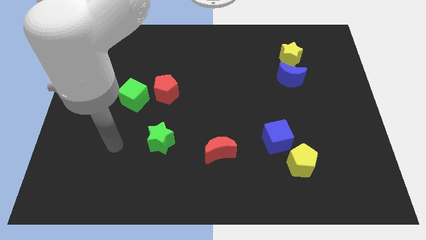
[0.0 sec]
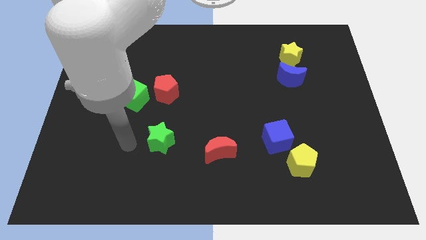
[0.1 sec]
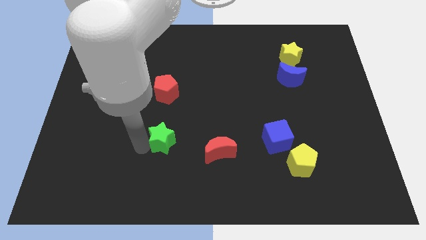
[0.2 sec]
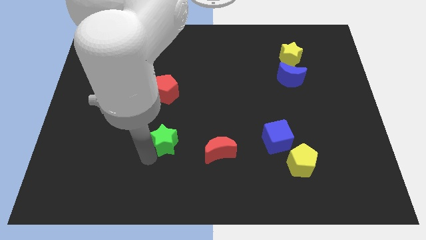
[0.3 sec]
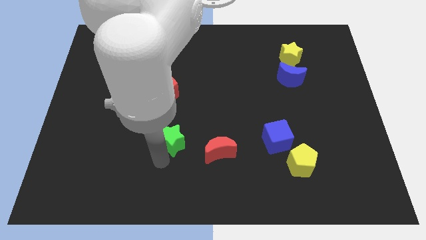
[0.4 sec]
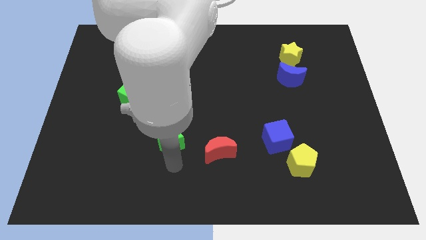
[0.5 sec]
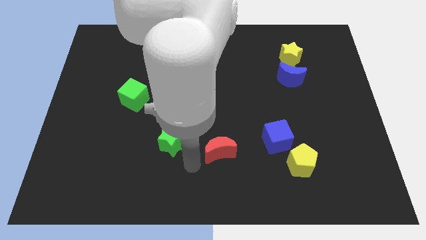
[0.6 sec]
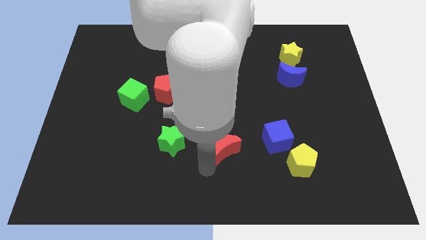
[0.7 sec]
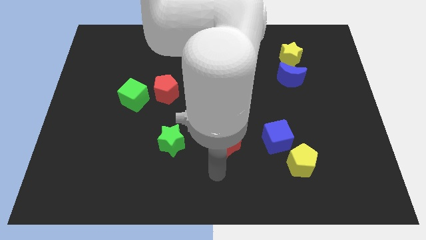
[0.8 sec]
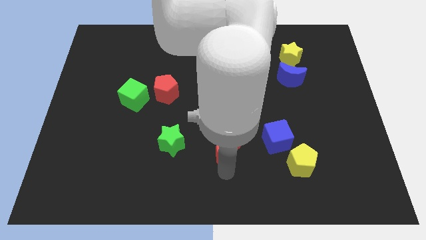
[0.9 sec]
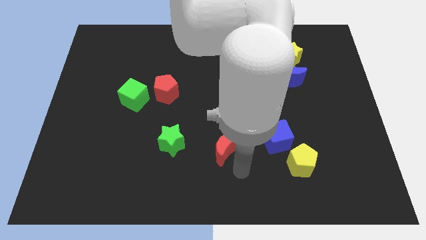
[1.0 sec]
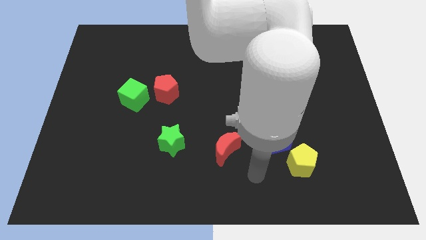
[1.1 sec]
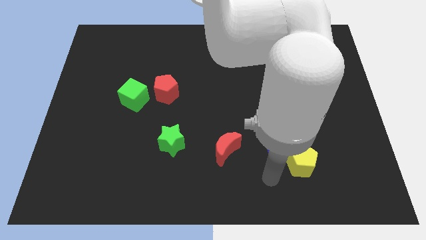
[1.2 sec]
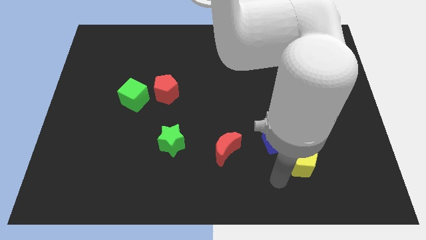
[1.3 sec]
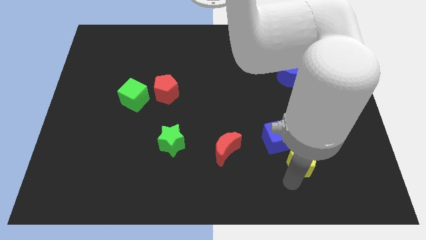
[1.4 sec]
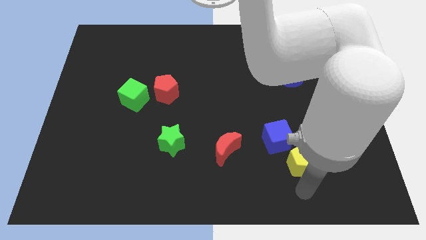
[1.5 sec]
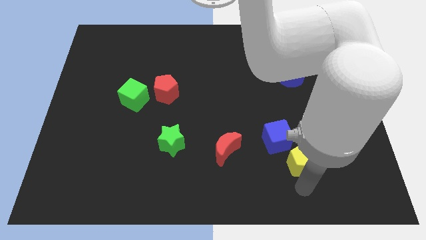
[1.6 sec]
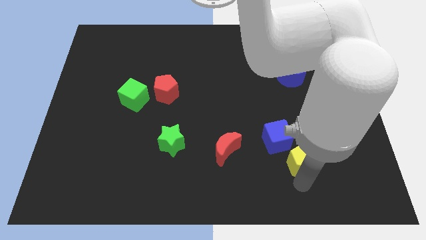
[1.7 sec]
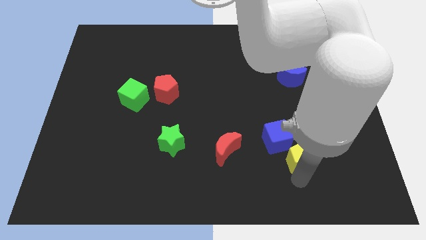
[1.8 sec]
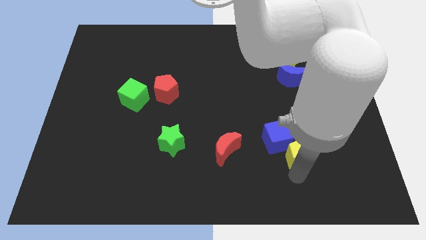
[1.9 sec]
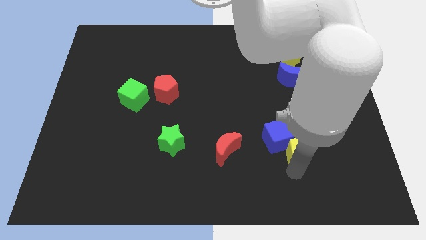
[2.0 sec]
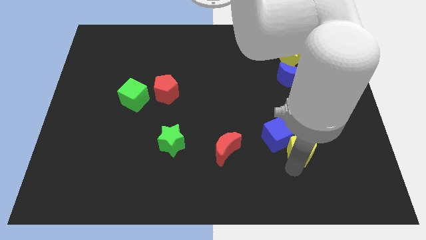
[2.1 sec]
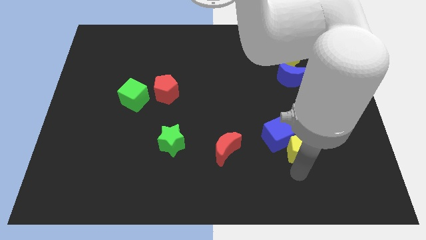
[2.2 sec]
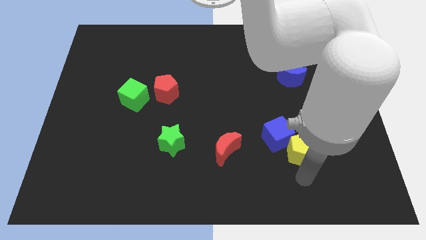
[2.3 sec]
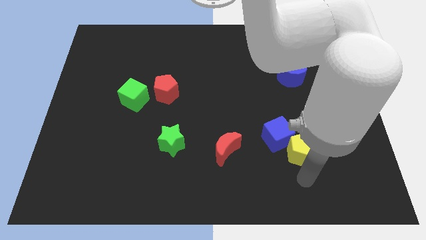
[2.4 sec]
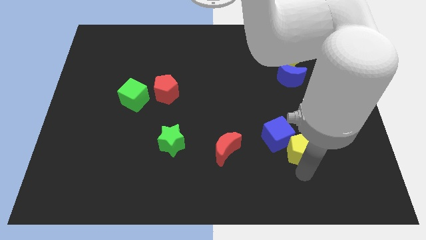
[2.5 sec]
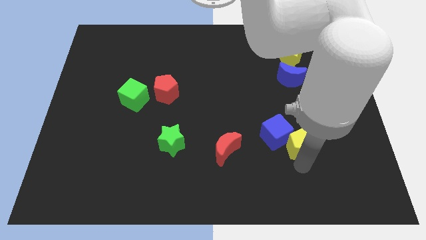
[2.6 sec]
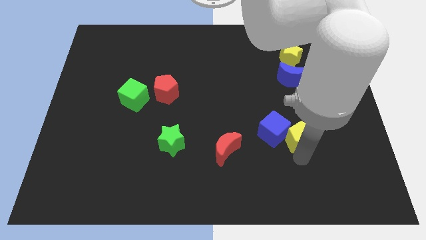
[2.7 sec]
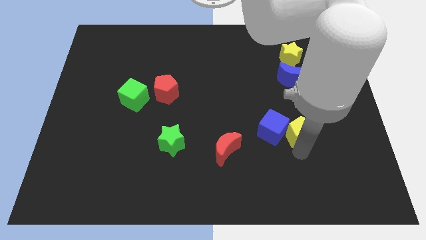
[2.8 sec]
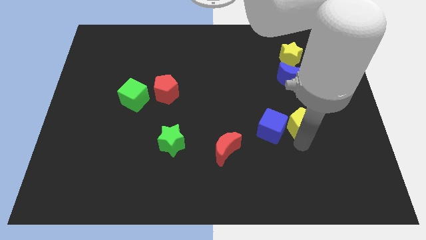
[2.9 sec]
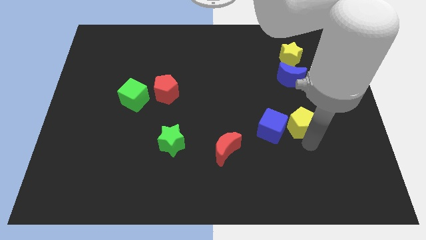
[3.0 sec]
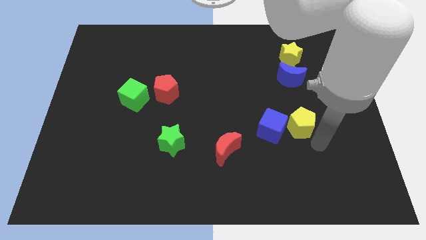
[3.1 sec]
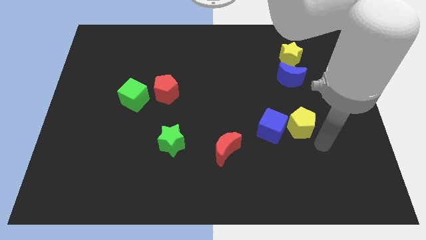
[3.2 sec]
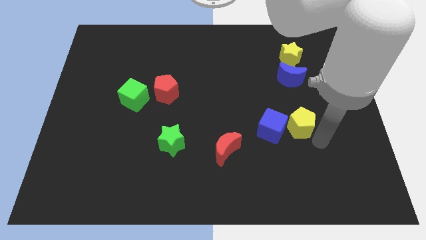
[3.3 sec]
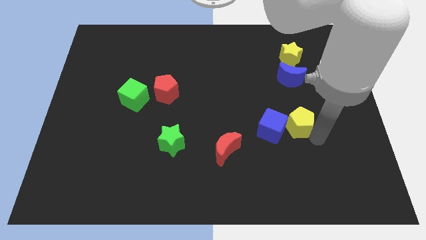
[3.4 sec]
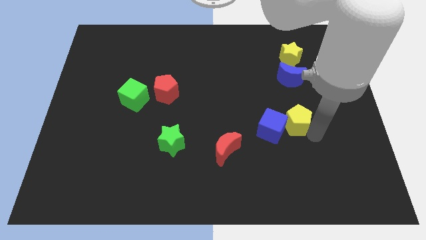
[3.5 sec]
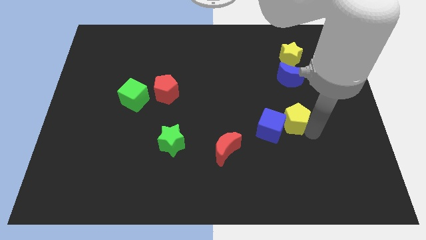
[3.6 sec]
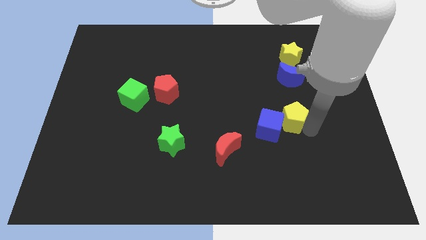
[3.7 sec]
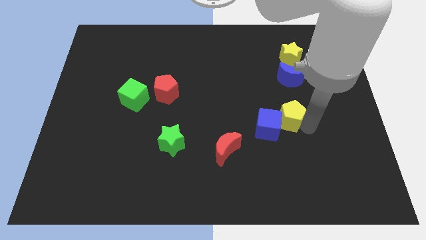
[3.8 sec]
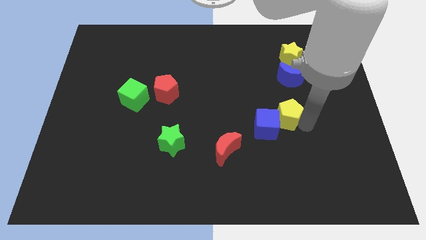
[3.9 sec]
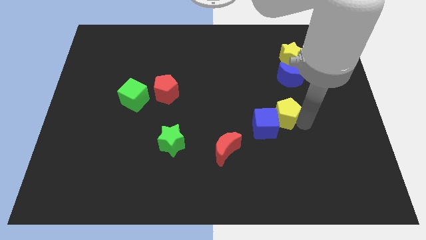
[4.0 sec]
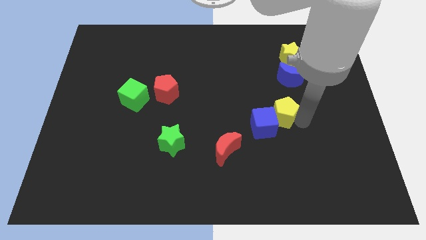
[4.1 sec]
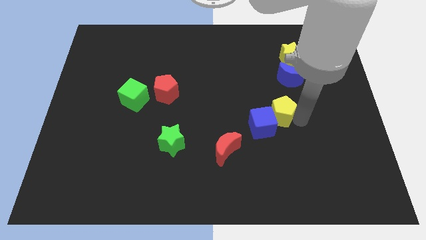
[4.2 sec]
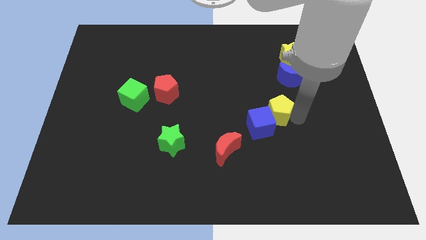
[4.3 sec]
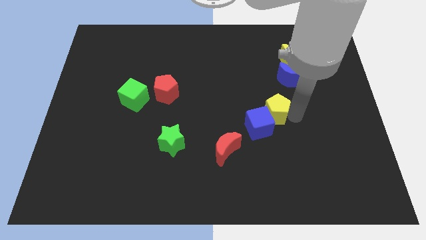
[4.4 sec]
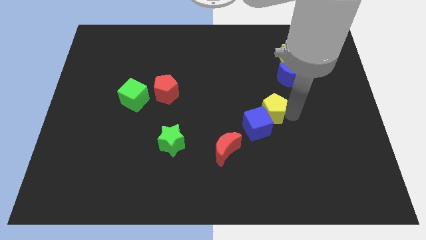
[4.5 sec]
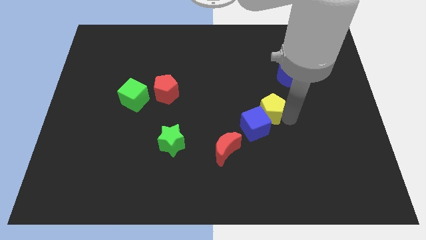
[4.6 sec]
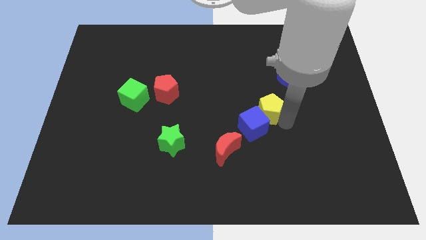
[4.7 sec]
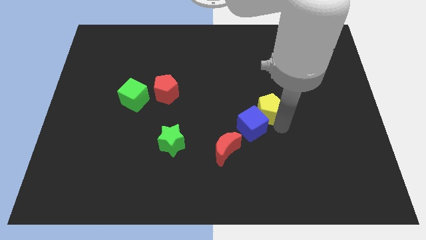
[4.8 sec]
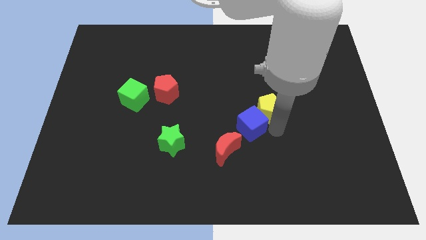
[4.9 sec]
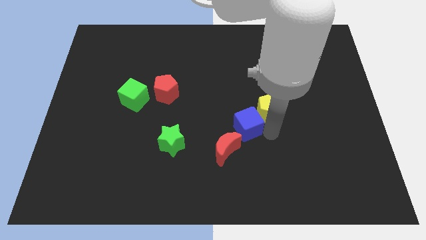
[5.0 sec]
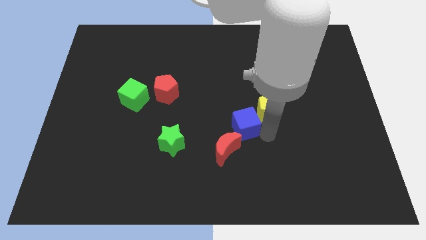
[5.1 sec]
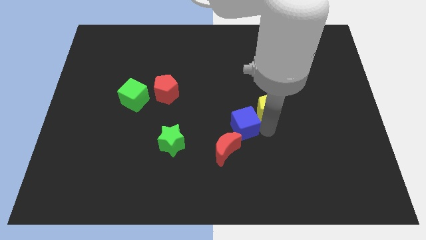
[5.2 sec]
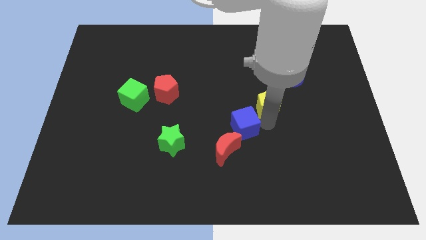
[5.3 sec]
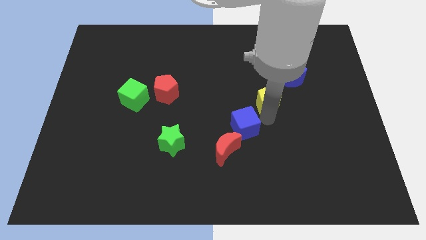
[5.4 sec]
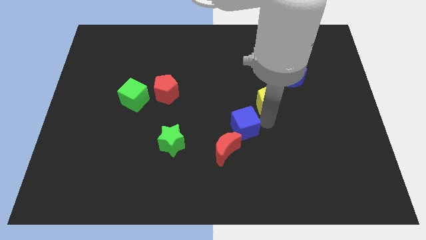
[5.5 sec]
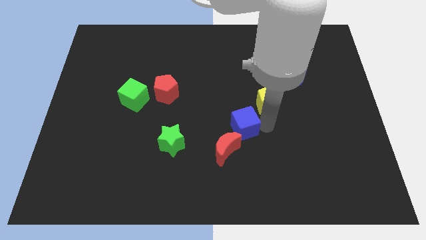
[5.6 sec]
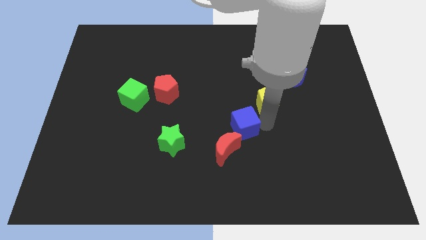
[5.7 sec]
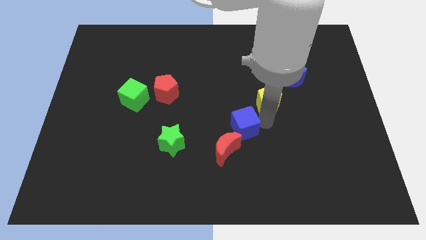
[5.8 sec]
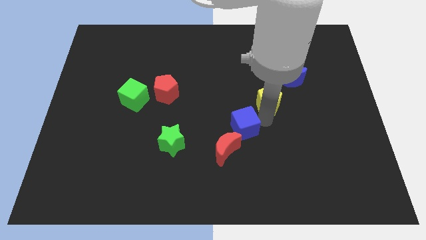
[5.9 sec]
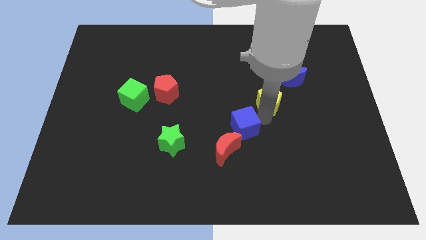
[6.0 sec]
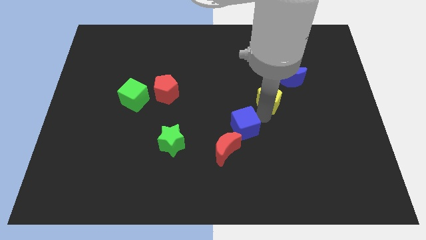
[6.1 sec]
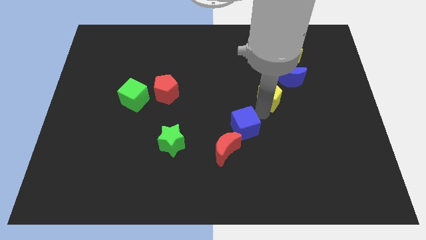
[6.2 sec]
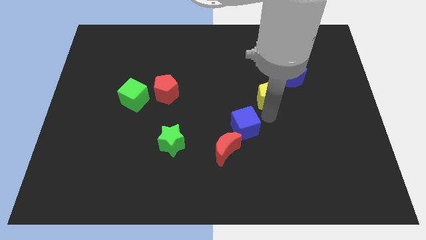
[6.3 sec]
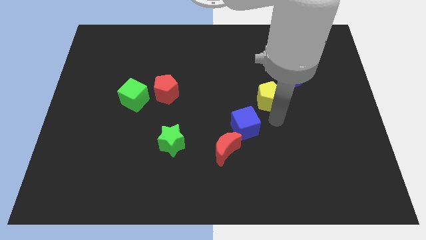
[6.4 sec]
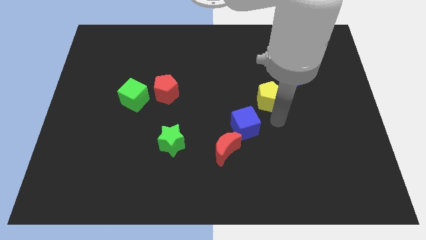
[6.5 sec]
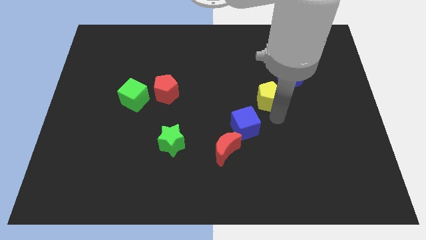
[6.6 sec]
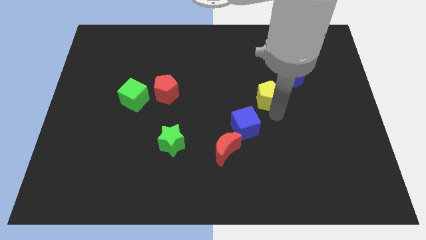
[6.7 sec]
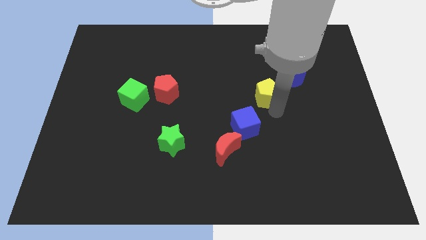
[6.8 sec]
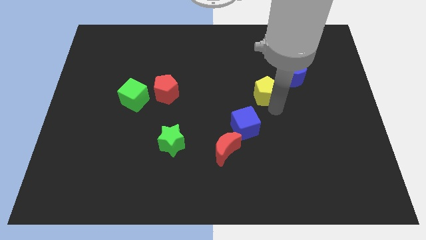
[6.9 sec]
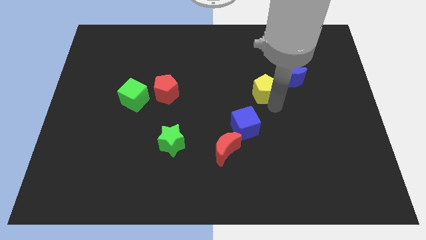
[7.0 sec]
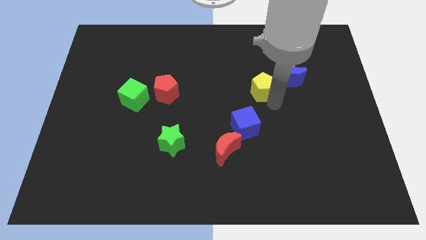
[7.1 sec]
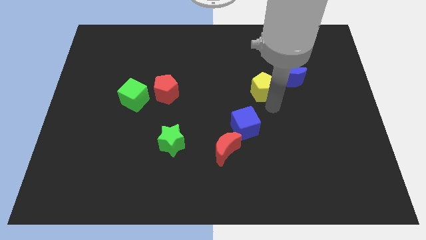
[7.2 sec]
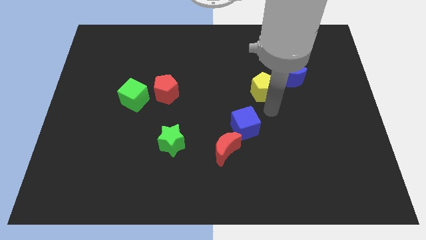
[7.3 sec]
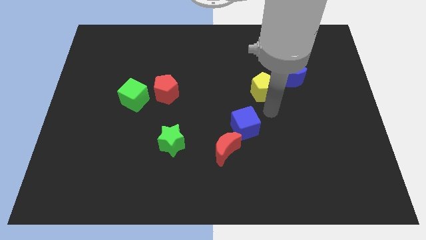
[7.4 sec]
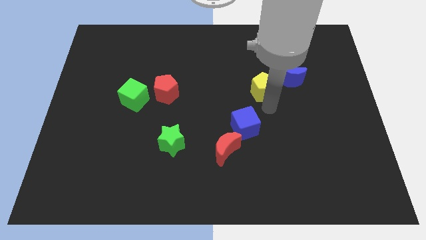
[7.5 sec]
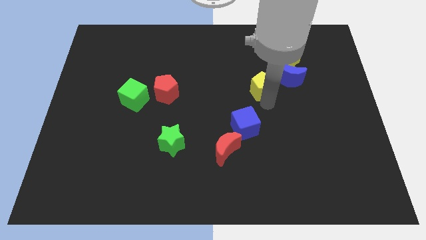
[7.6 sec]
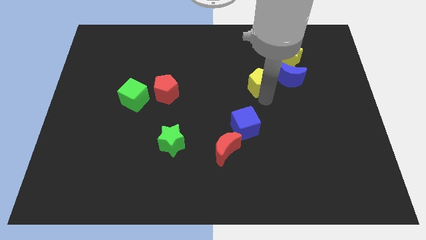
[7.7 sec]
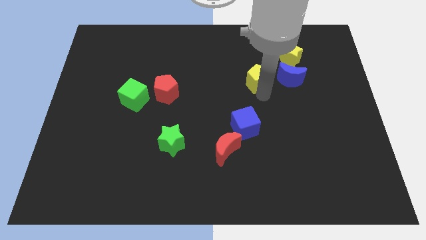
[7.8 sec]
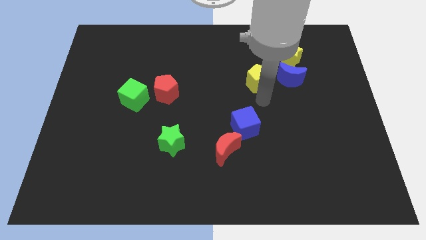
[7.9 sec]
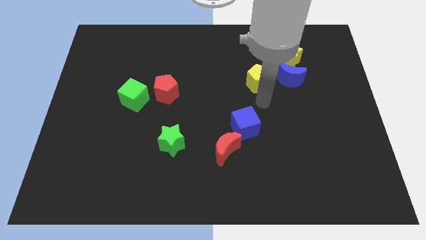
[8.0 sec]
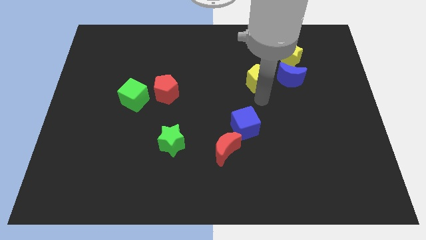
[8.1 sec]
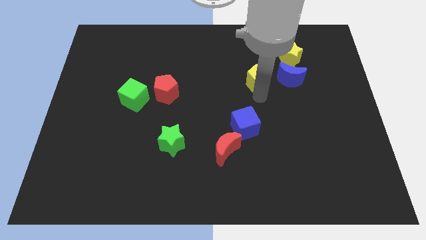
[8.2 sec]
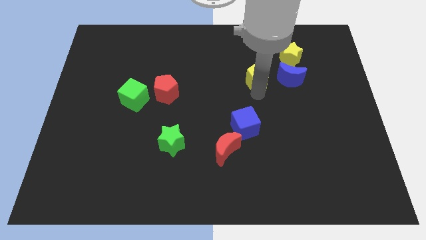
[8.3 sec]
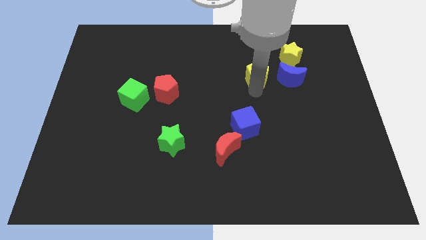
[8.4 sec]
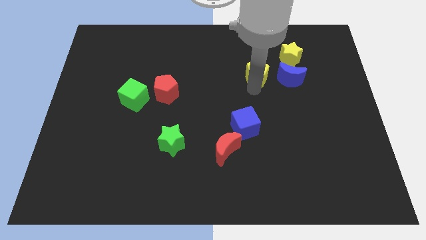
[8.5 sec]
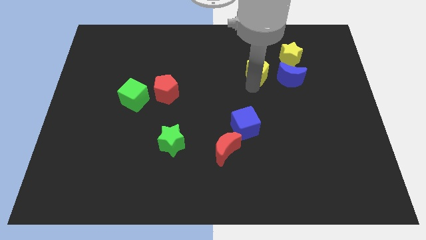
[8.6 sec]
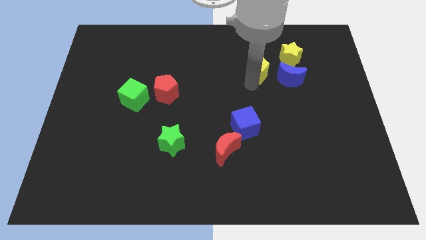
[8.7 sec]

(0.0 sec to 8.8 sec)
put the yellow pentagon left of the yellow star
